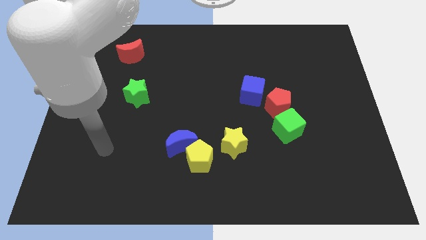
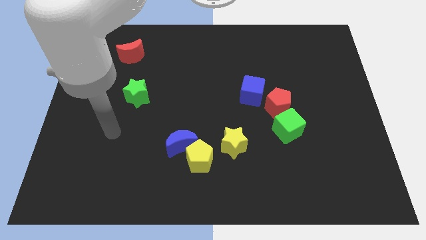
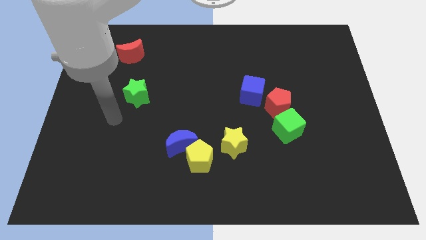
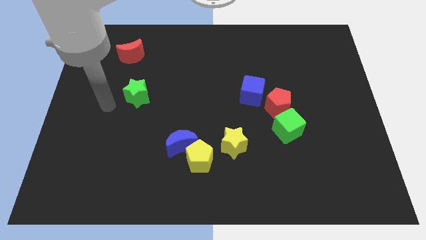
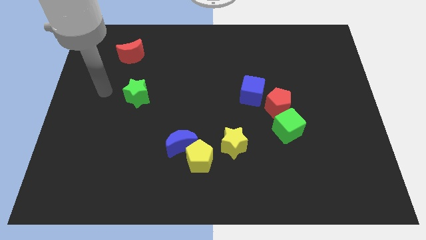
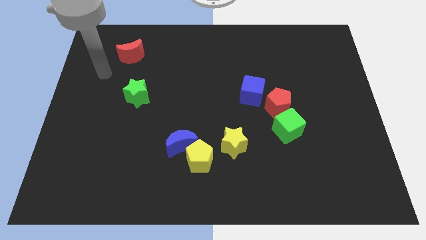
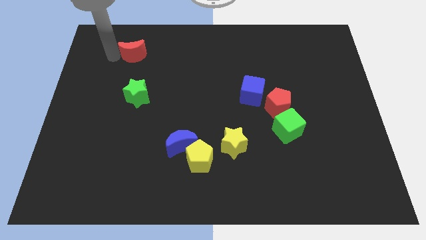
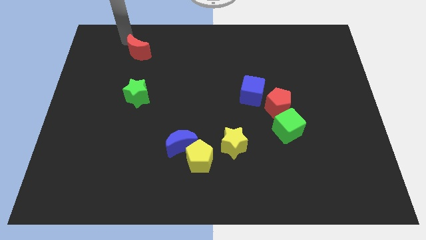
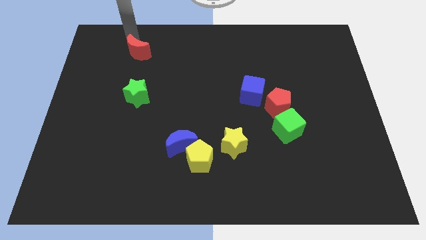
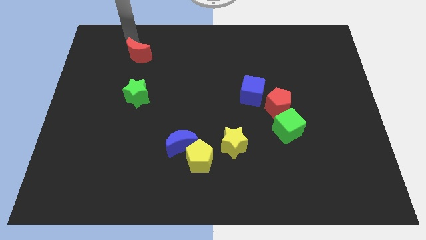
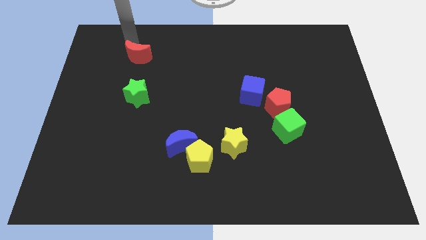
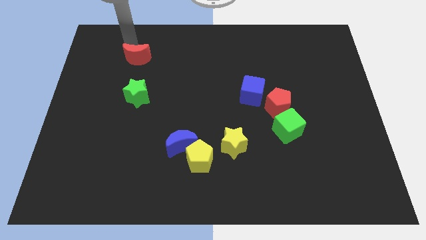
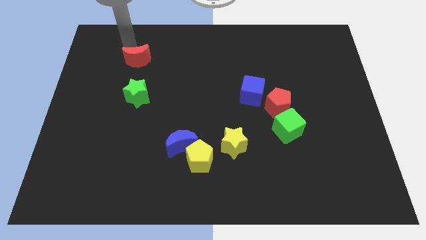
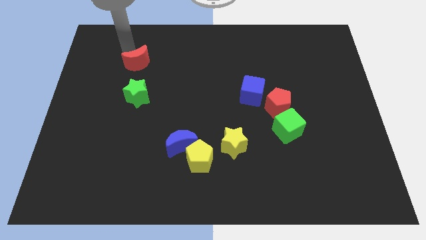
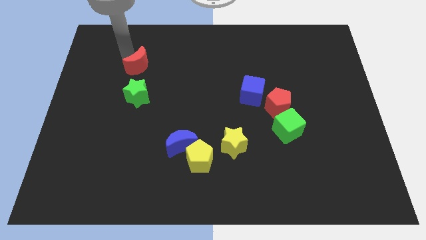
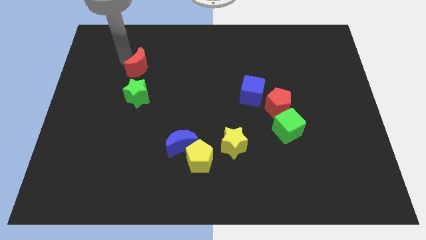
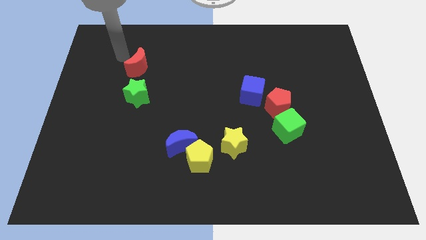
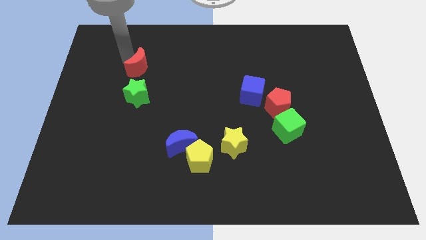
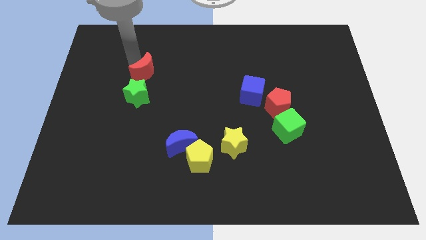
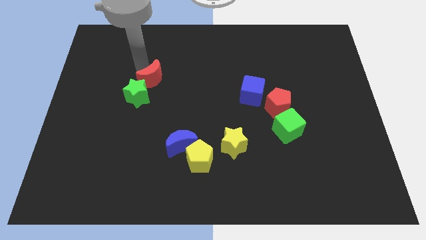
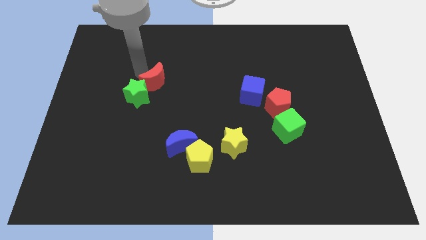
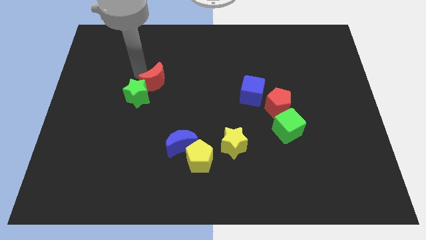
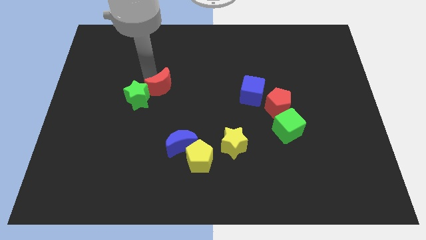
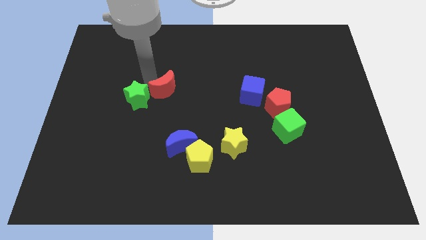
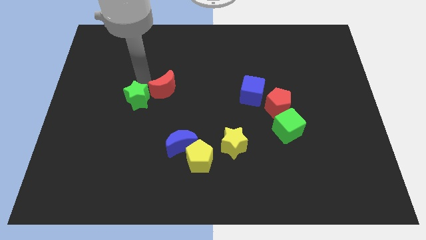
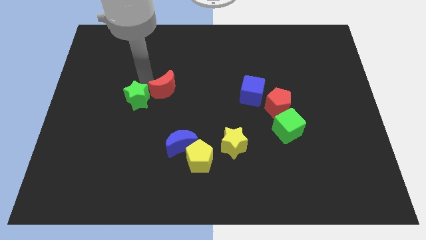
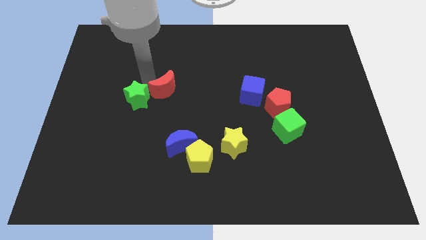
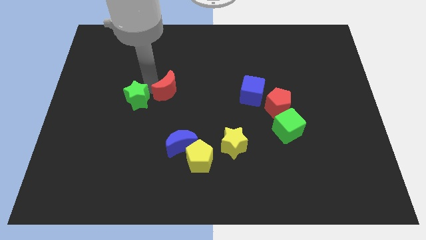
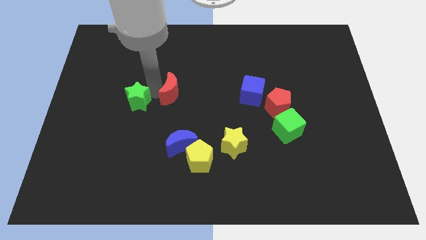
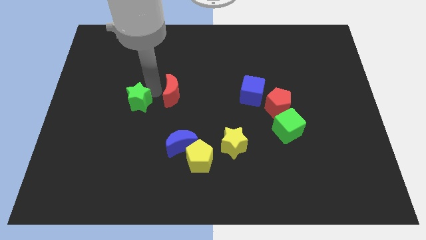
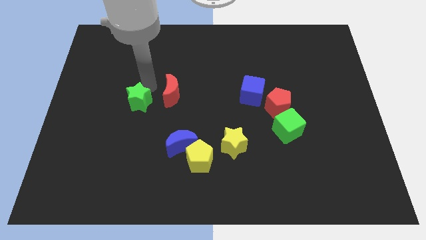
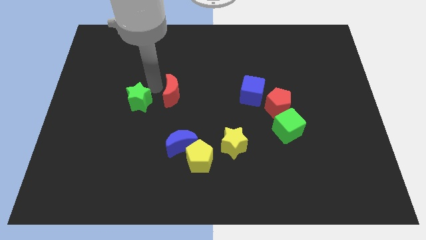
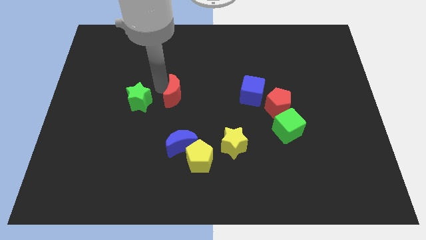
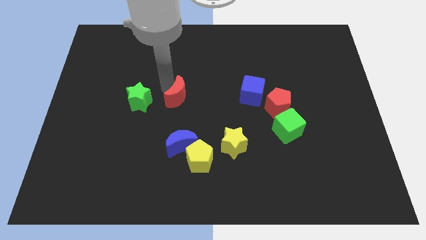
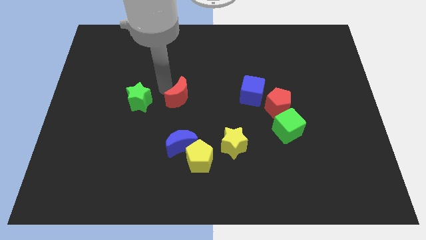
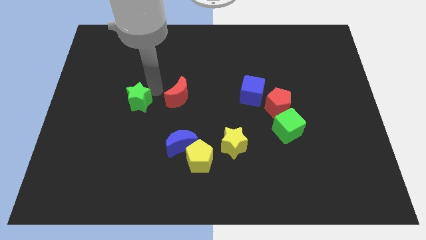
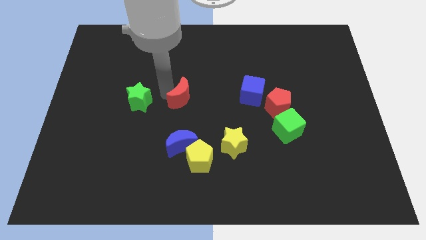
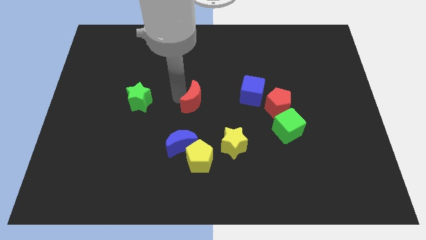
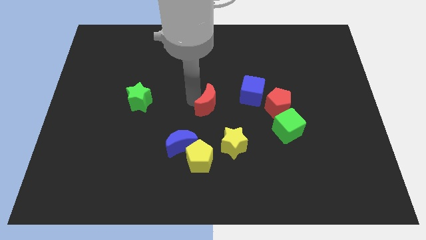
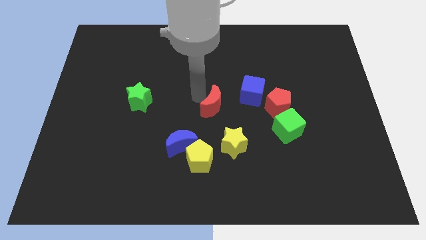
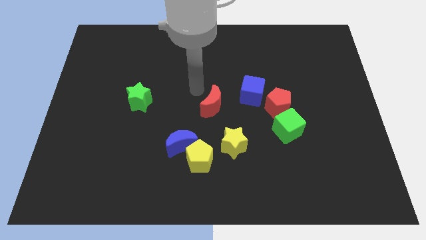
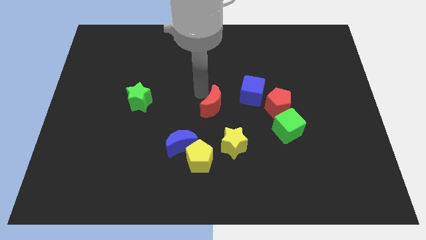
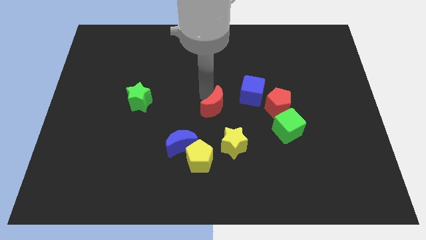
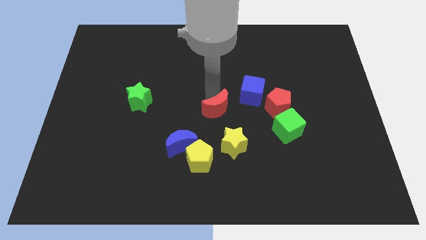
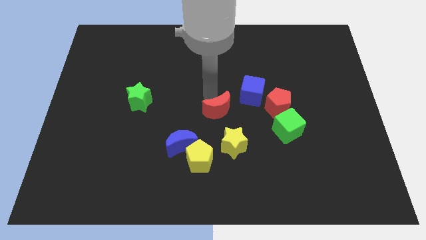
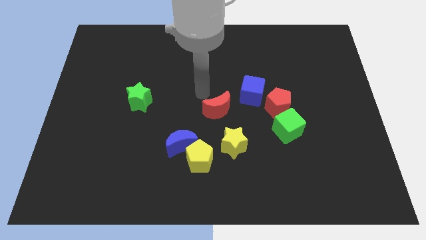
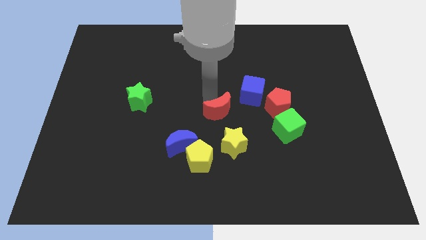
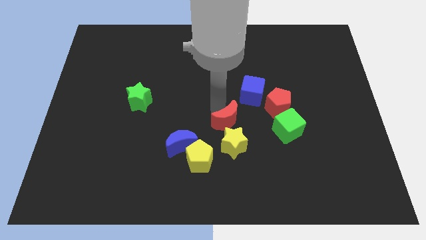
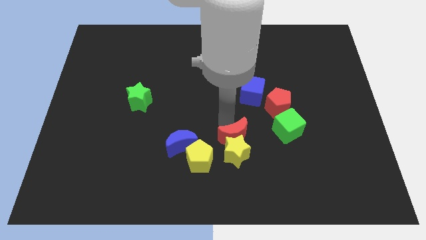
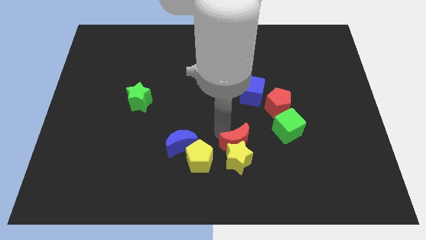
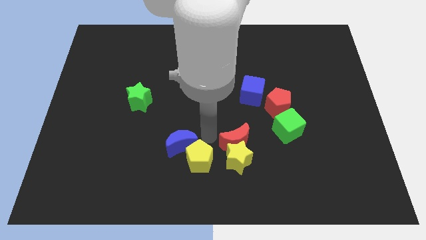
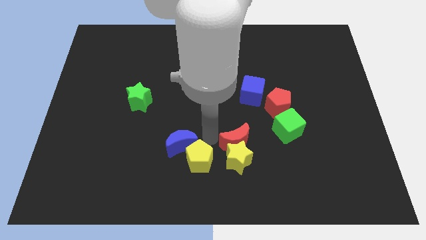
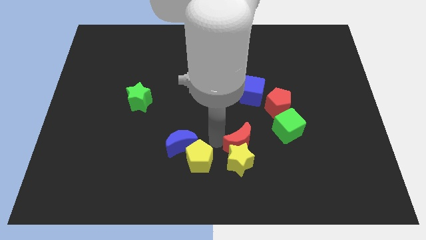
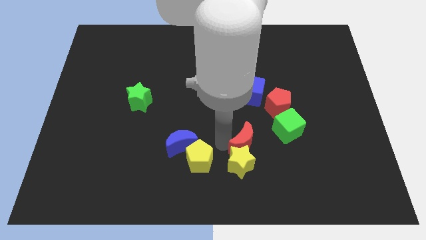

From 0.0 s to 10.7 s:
put the red moon to the bottom left side of the green cube

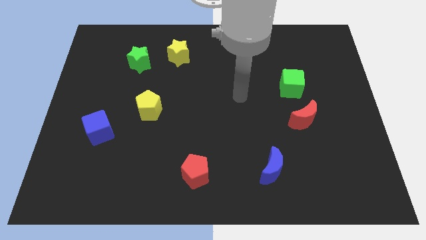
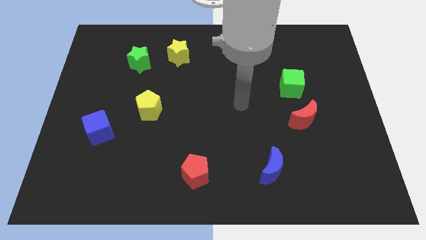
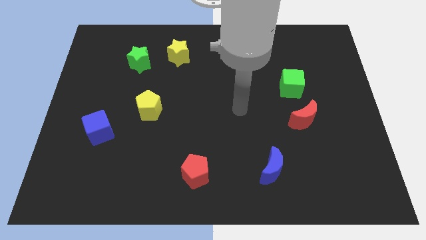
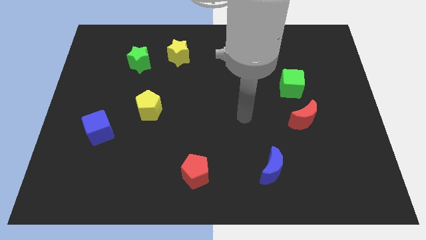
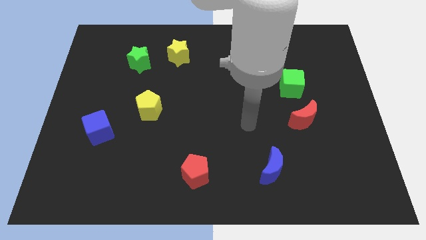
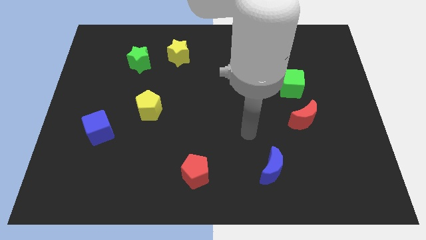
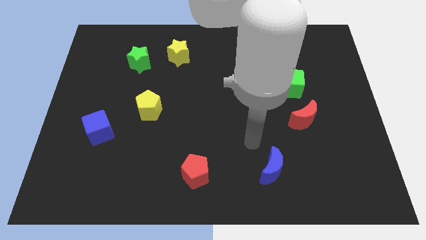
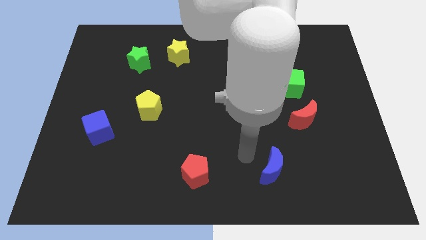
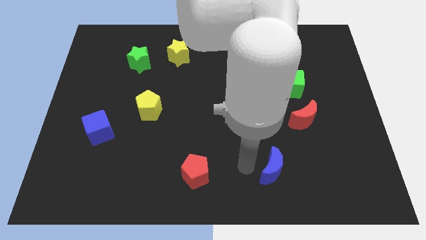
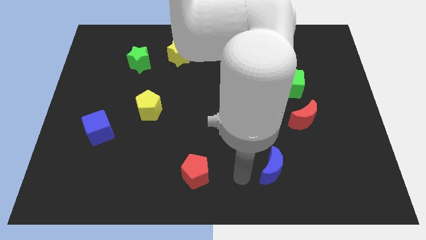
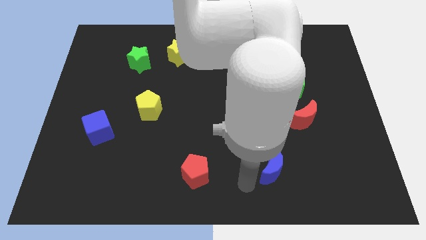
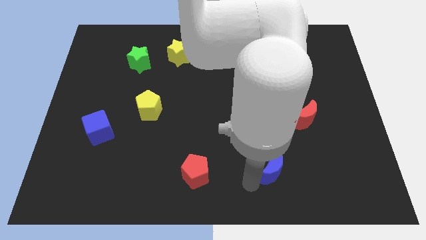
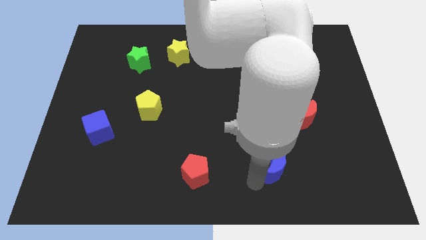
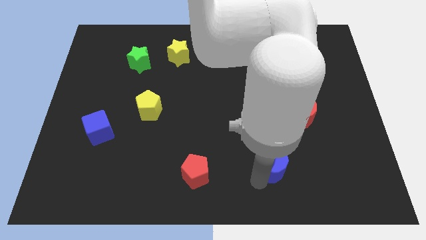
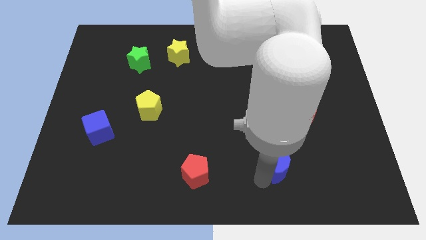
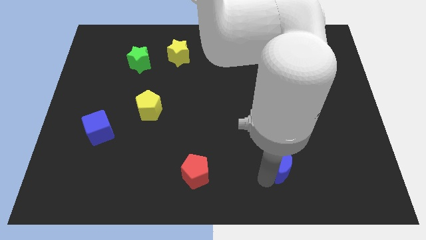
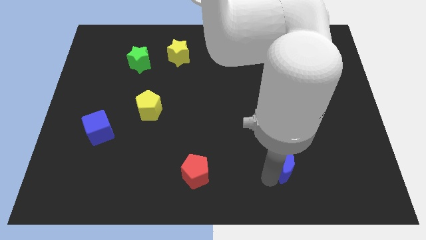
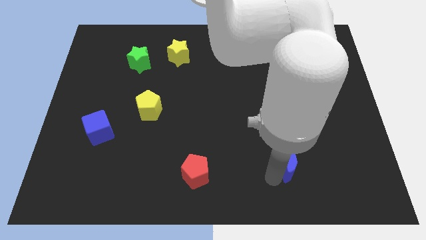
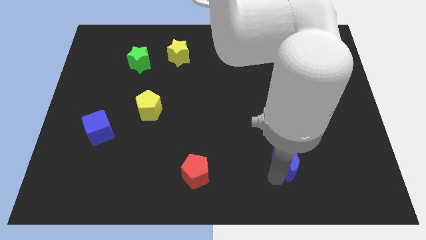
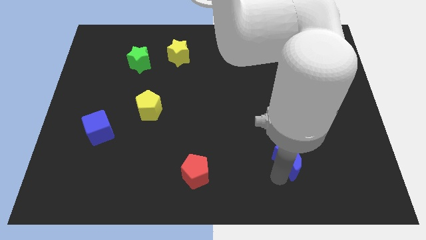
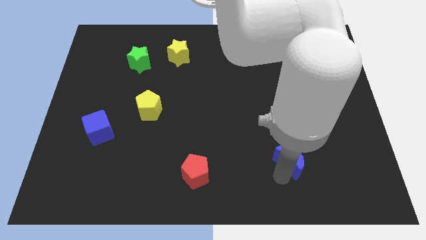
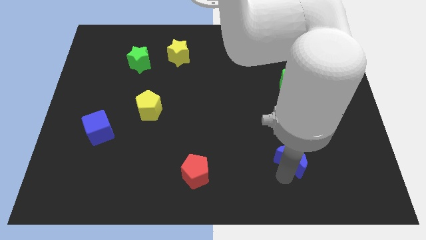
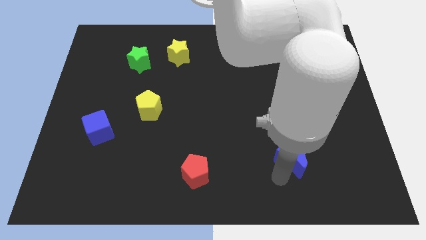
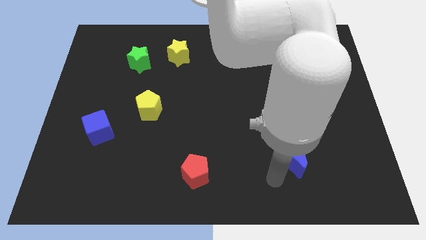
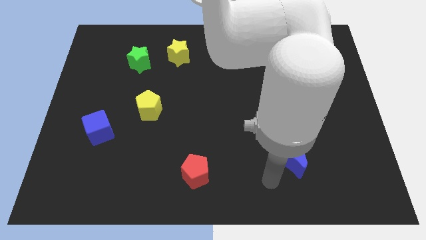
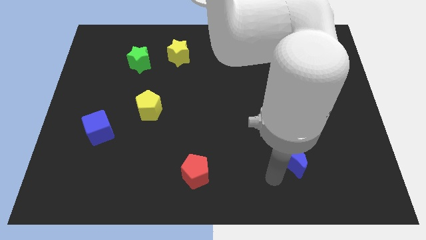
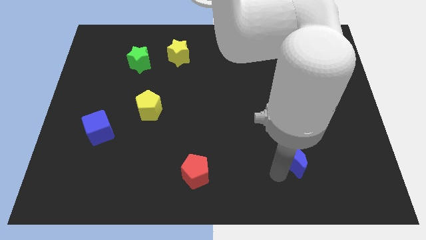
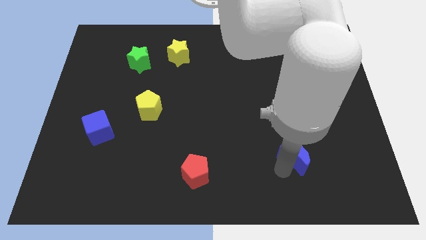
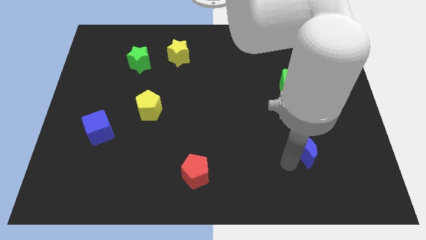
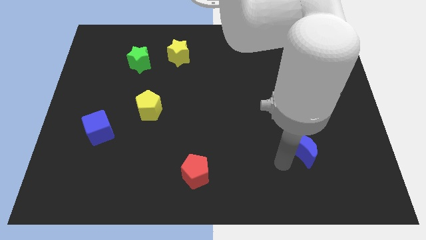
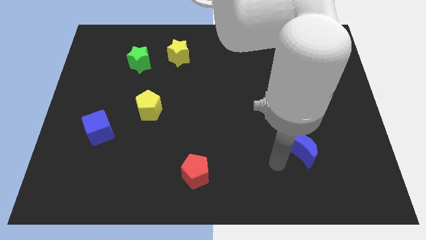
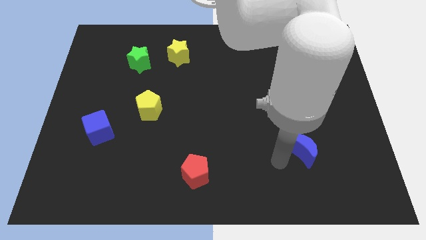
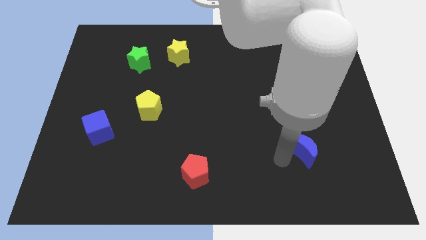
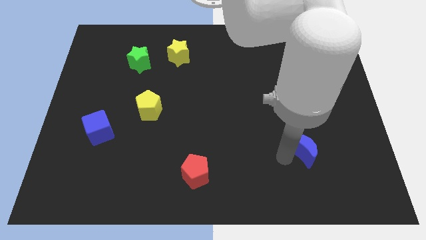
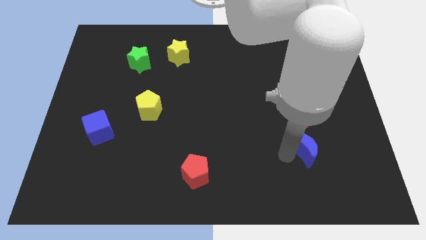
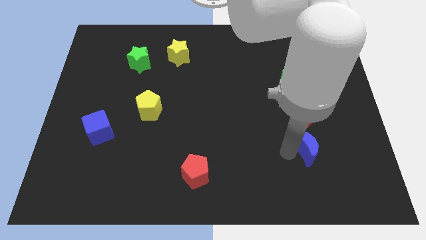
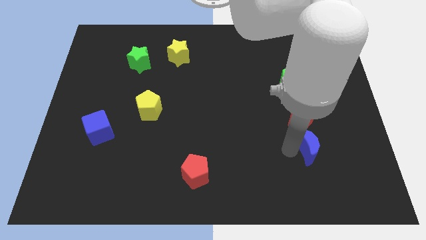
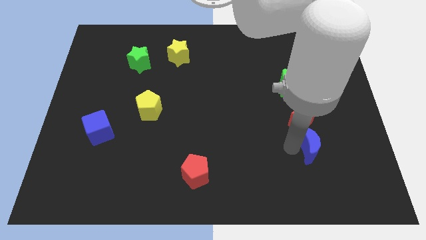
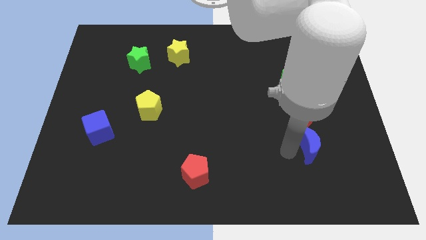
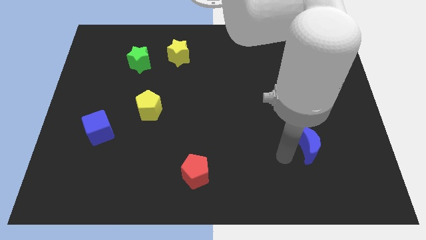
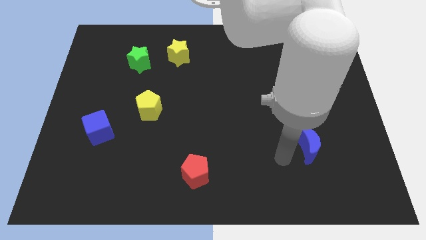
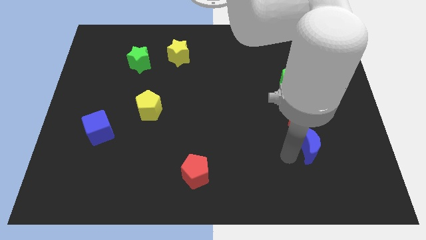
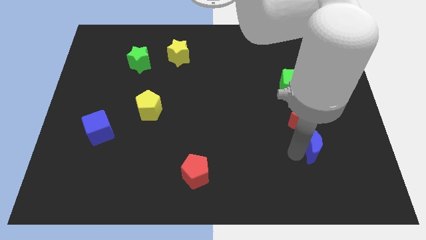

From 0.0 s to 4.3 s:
slide the blue moon to the bottom right side of the red moon
